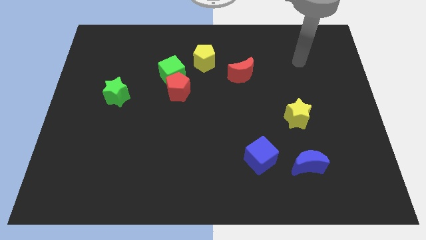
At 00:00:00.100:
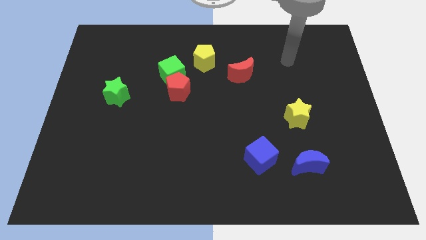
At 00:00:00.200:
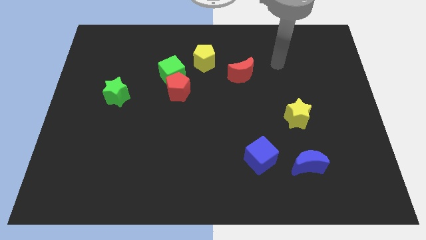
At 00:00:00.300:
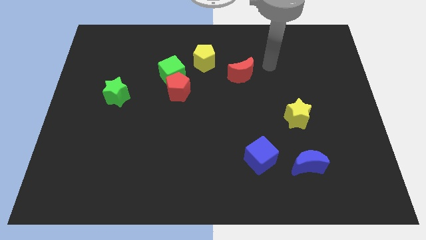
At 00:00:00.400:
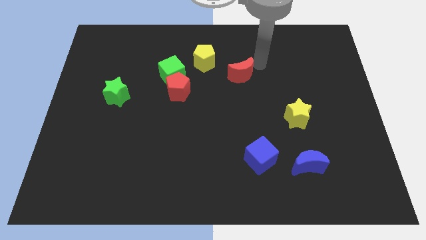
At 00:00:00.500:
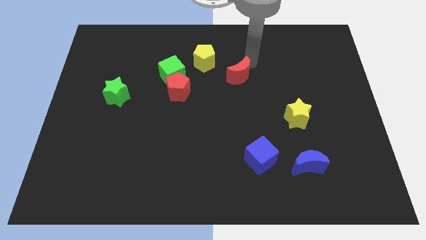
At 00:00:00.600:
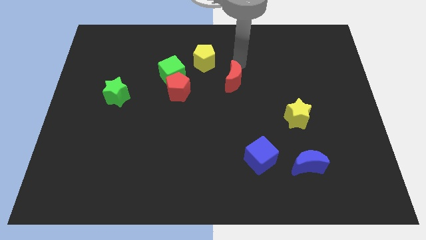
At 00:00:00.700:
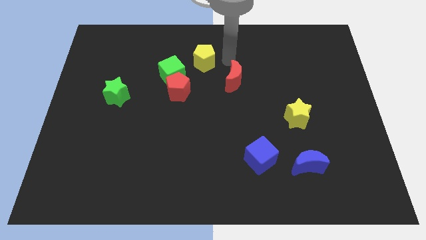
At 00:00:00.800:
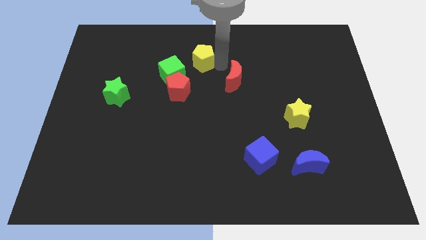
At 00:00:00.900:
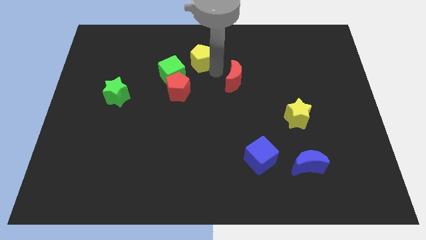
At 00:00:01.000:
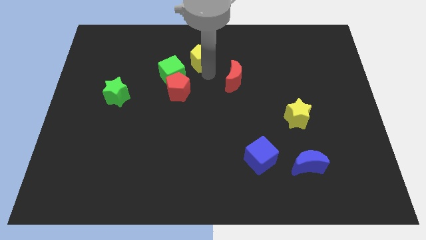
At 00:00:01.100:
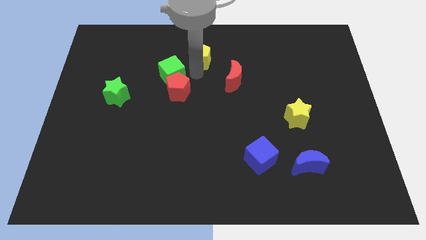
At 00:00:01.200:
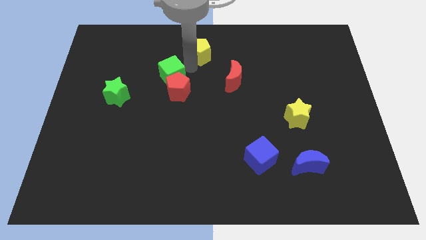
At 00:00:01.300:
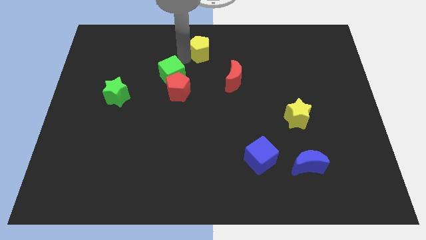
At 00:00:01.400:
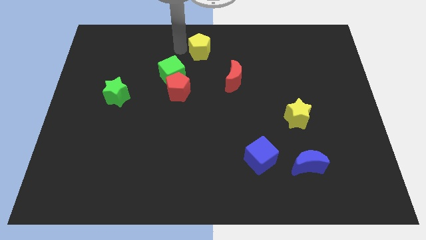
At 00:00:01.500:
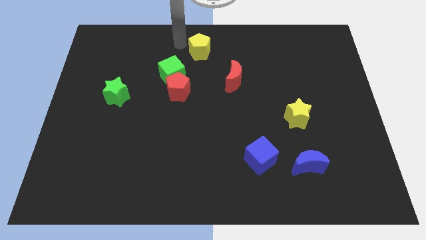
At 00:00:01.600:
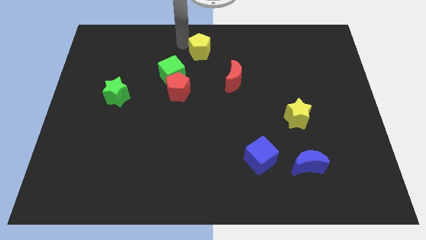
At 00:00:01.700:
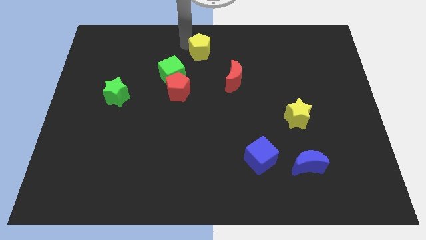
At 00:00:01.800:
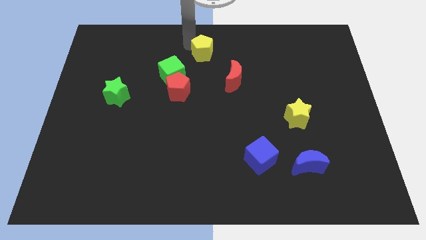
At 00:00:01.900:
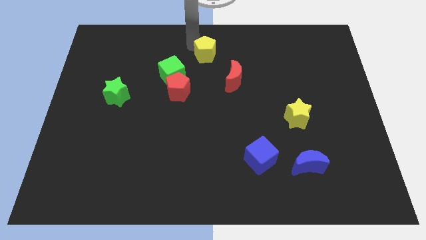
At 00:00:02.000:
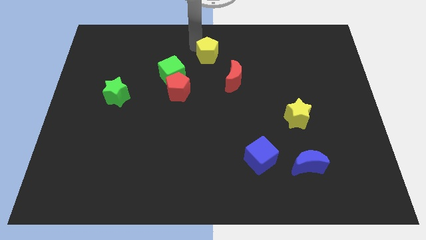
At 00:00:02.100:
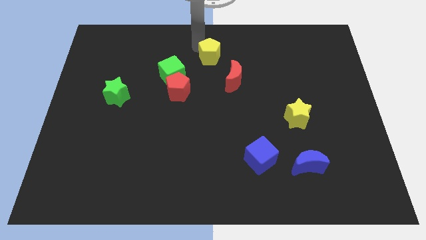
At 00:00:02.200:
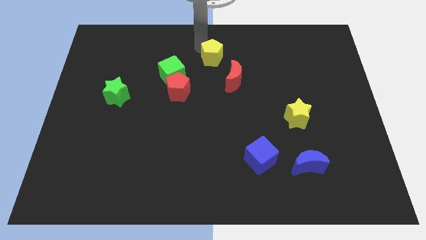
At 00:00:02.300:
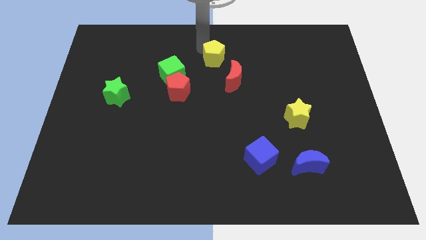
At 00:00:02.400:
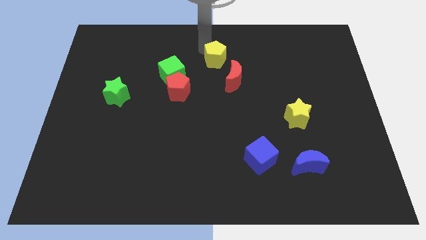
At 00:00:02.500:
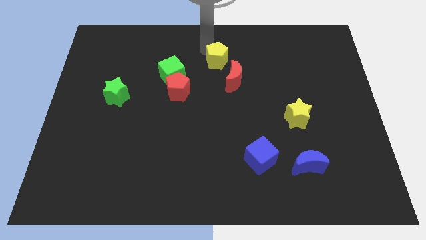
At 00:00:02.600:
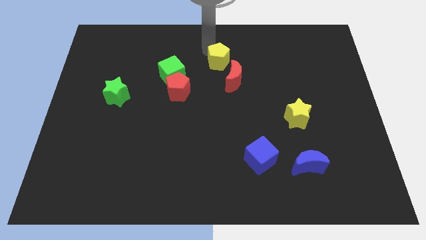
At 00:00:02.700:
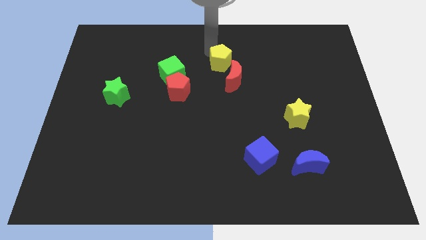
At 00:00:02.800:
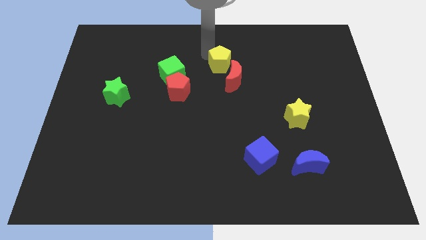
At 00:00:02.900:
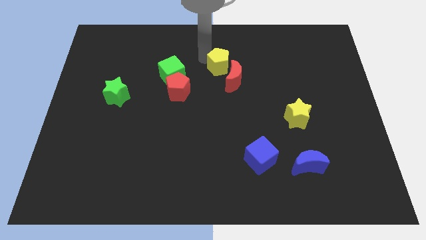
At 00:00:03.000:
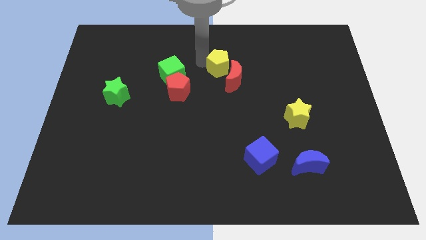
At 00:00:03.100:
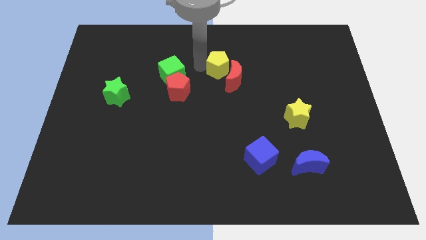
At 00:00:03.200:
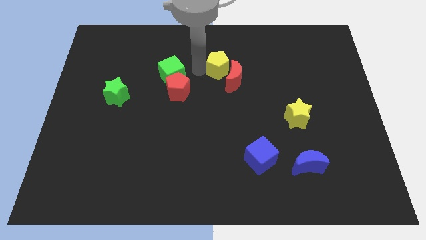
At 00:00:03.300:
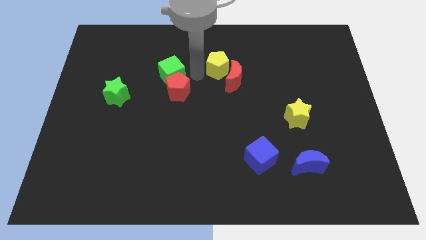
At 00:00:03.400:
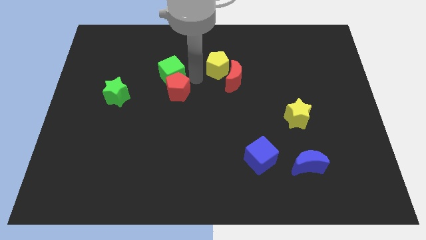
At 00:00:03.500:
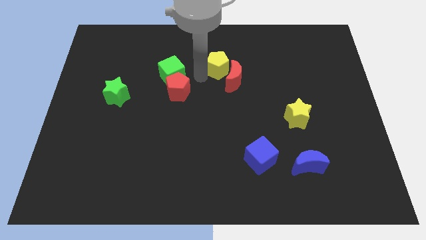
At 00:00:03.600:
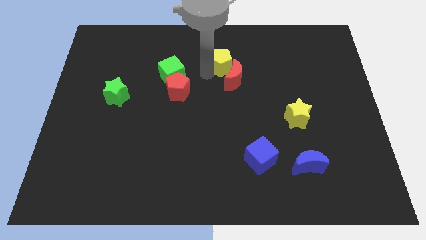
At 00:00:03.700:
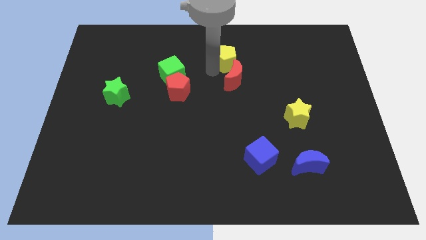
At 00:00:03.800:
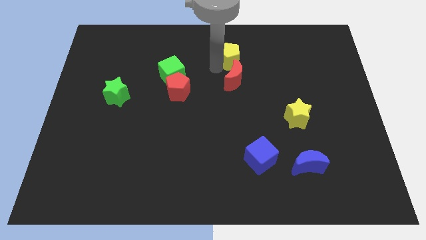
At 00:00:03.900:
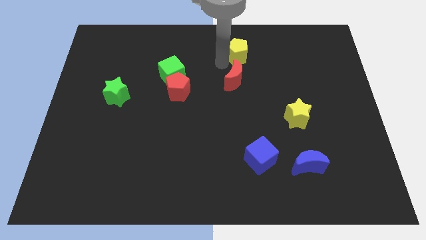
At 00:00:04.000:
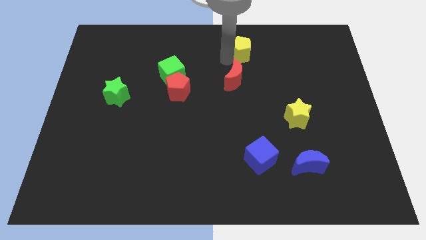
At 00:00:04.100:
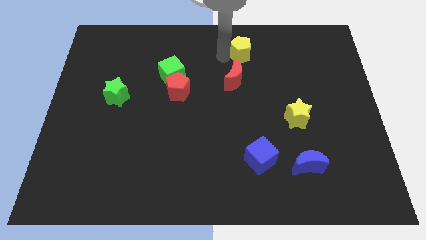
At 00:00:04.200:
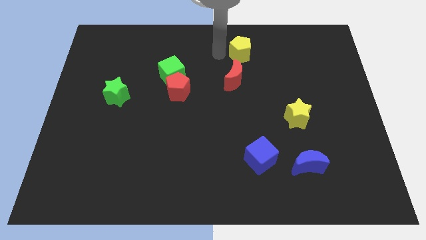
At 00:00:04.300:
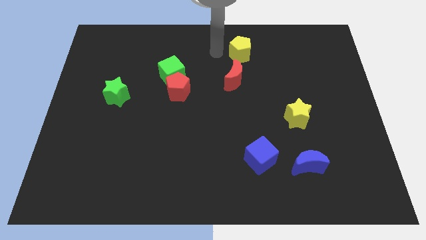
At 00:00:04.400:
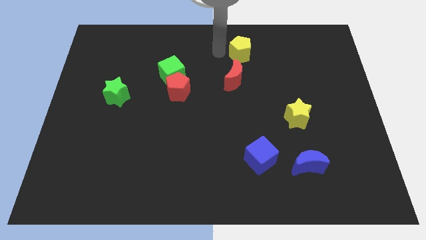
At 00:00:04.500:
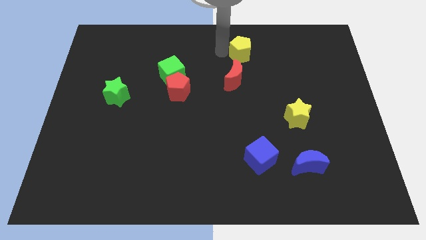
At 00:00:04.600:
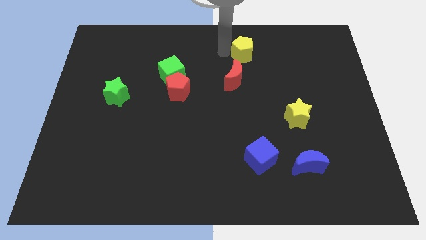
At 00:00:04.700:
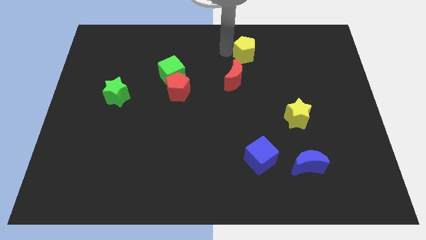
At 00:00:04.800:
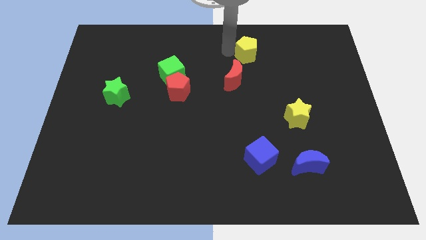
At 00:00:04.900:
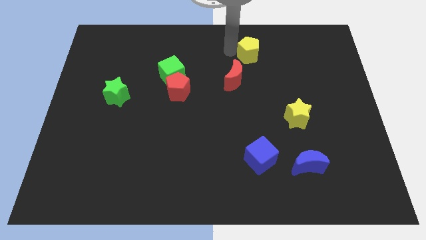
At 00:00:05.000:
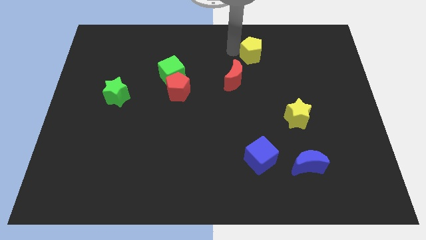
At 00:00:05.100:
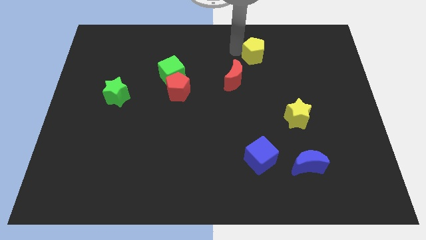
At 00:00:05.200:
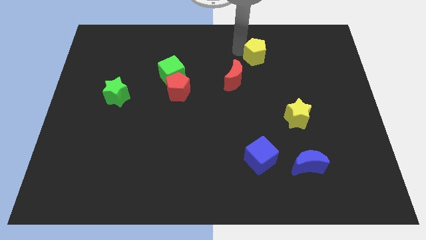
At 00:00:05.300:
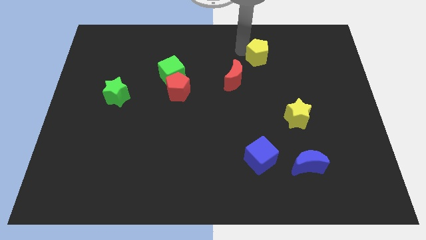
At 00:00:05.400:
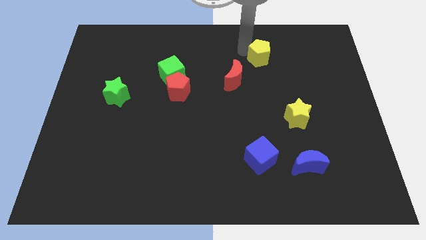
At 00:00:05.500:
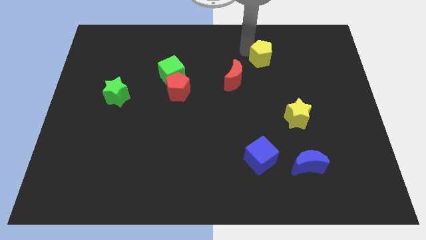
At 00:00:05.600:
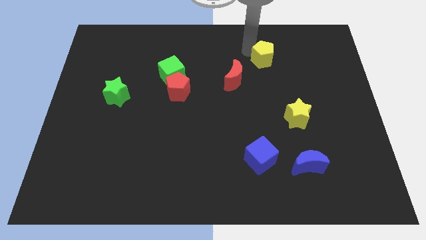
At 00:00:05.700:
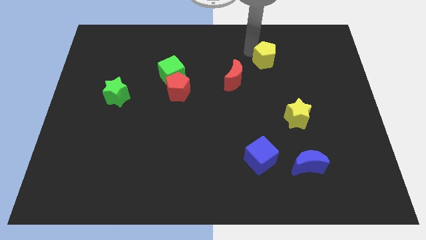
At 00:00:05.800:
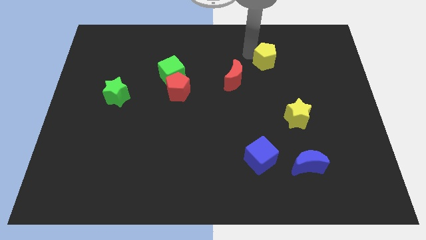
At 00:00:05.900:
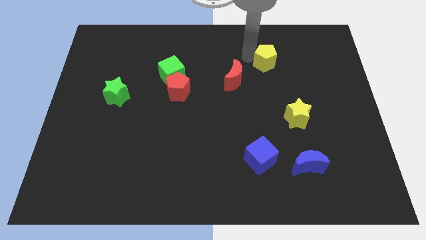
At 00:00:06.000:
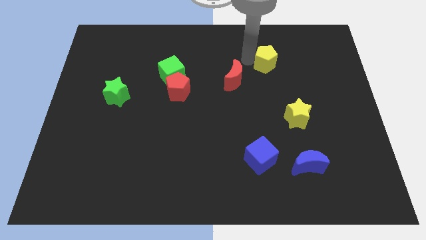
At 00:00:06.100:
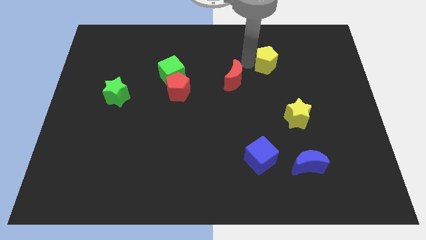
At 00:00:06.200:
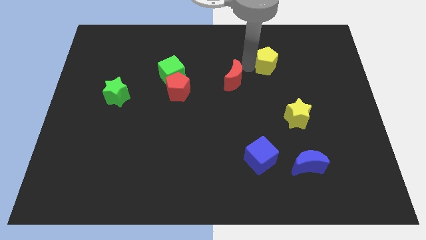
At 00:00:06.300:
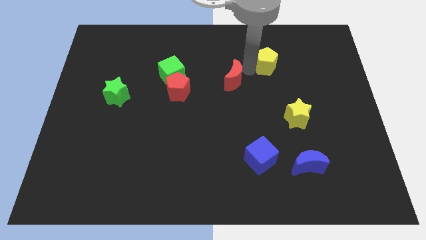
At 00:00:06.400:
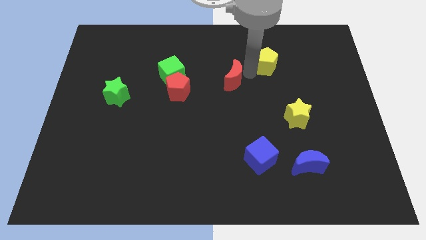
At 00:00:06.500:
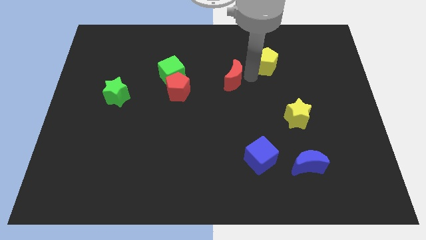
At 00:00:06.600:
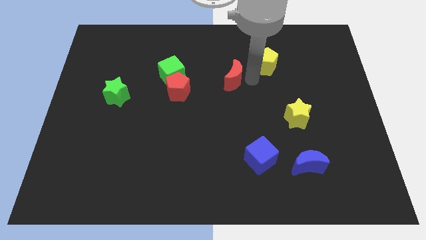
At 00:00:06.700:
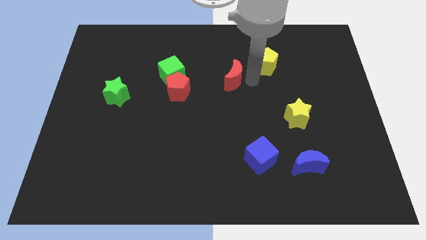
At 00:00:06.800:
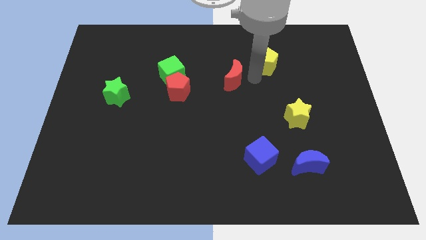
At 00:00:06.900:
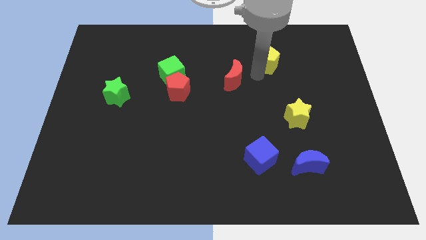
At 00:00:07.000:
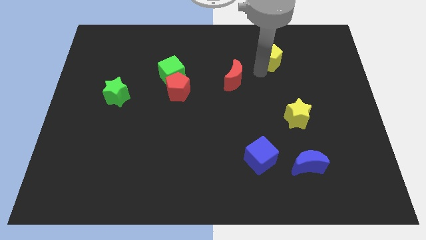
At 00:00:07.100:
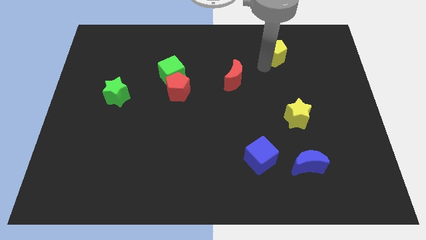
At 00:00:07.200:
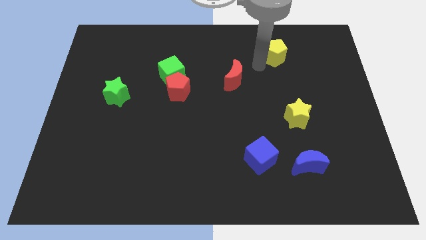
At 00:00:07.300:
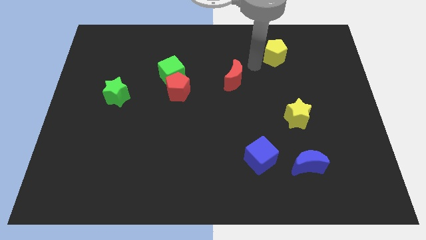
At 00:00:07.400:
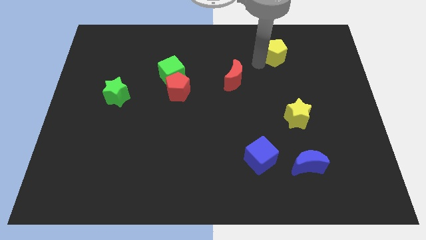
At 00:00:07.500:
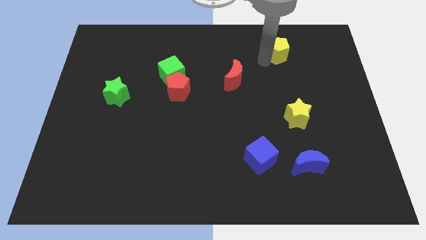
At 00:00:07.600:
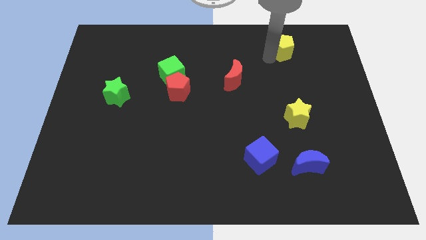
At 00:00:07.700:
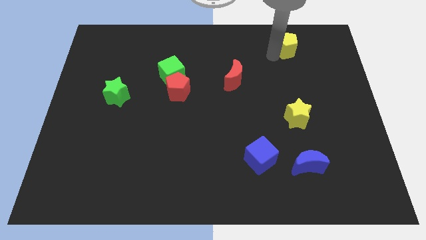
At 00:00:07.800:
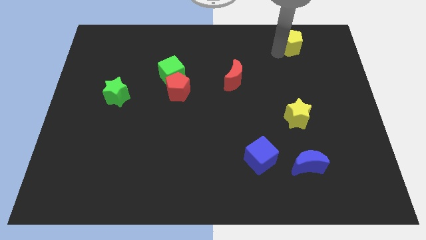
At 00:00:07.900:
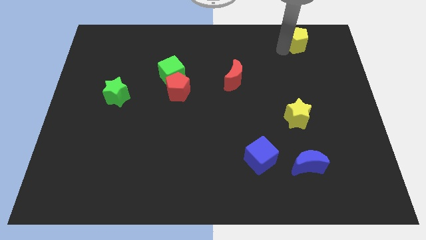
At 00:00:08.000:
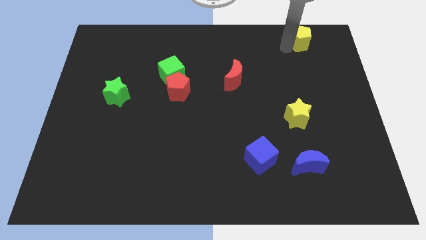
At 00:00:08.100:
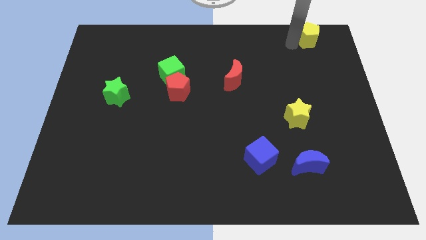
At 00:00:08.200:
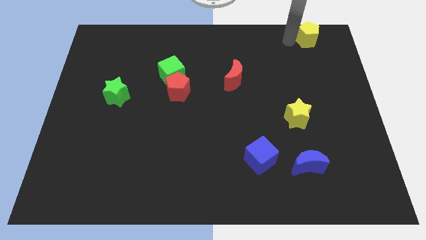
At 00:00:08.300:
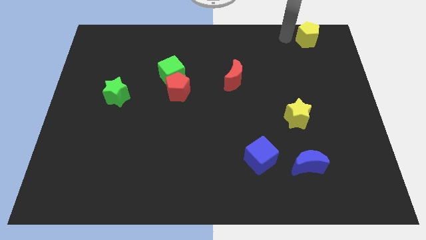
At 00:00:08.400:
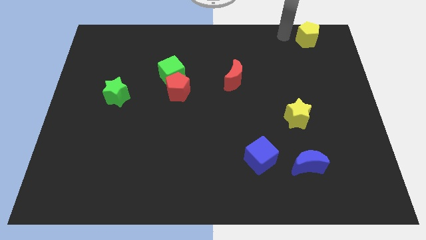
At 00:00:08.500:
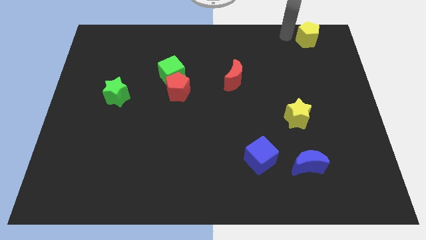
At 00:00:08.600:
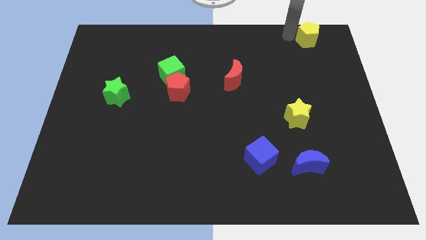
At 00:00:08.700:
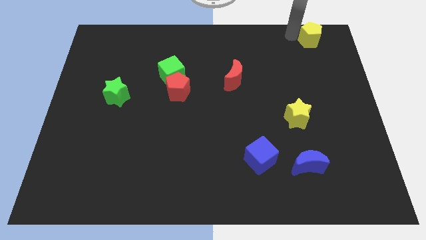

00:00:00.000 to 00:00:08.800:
move the yellow pentagon to the top right of the board
